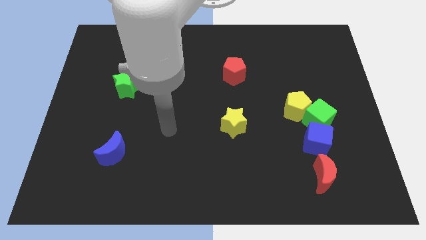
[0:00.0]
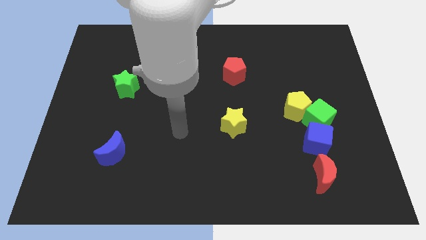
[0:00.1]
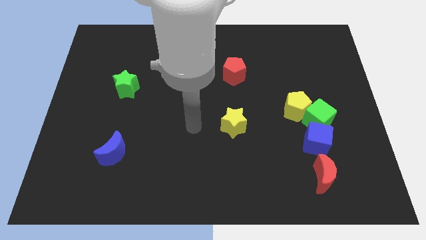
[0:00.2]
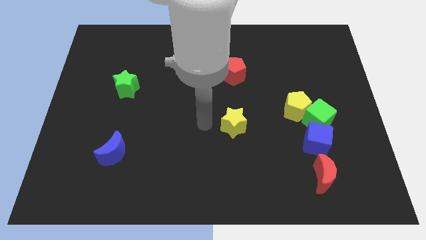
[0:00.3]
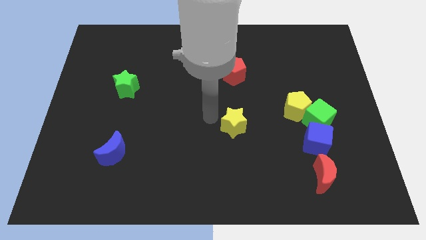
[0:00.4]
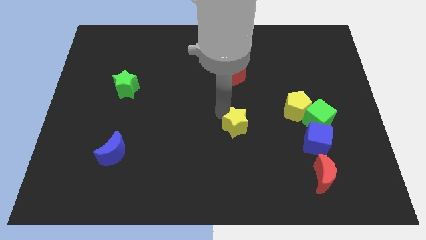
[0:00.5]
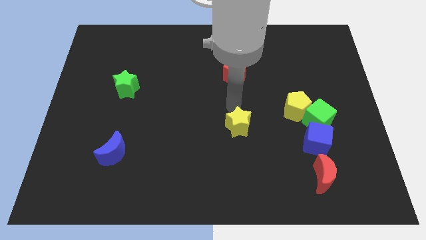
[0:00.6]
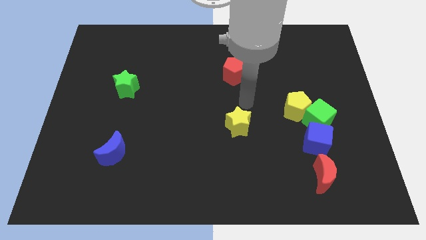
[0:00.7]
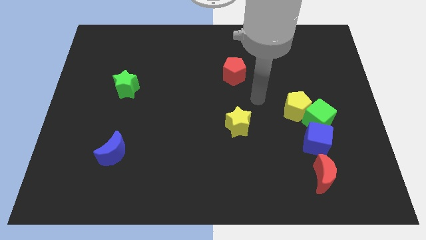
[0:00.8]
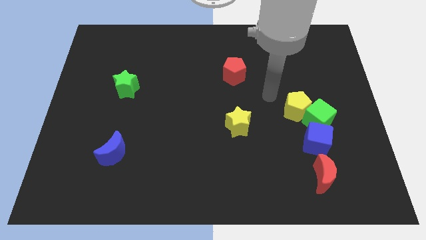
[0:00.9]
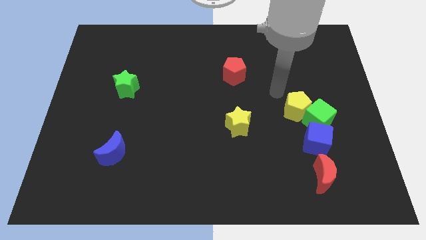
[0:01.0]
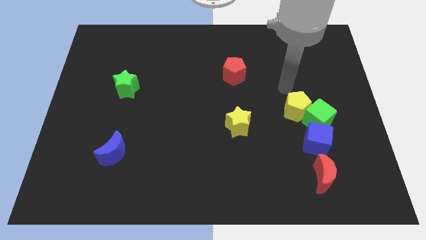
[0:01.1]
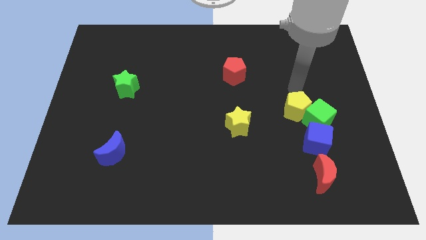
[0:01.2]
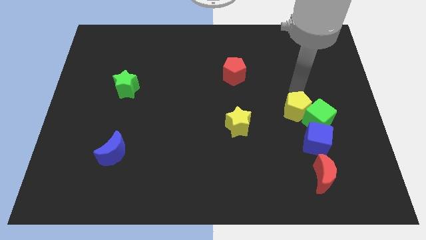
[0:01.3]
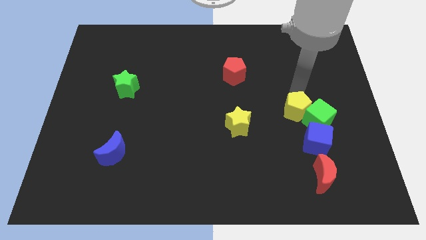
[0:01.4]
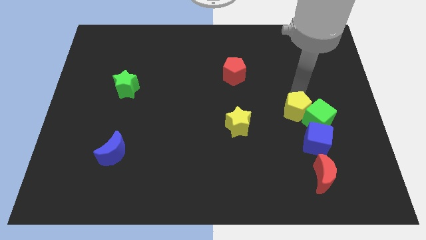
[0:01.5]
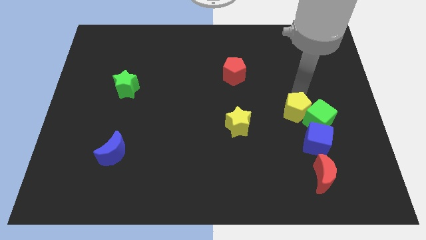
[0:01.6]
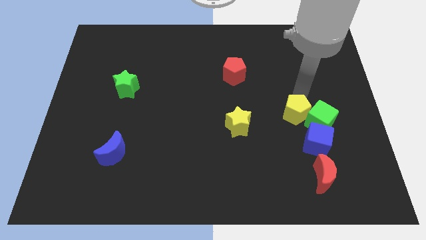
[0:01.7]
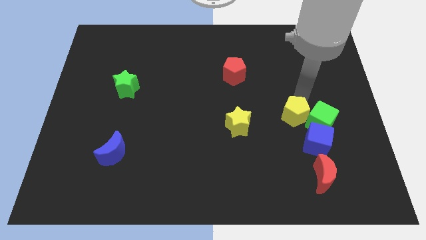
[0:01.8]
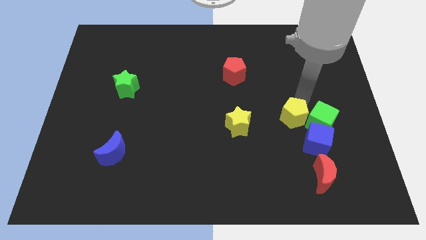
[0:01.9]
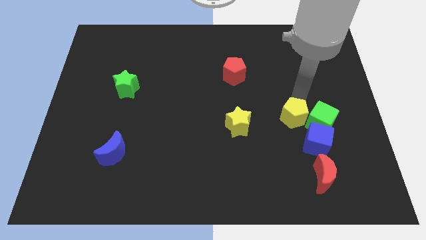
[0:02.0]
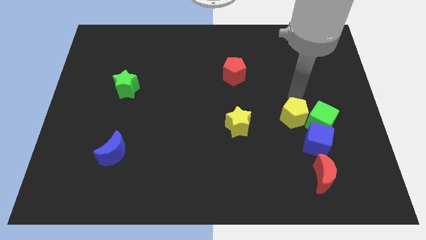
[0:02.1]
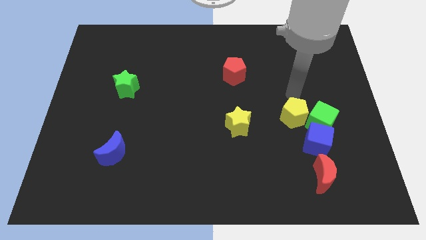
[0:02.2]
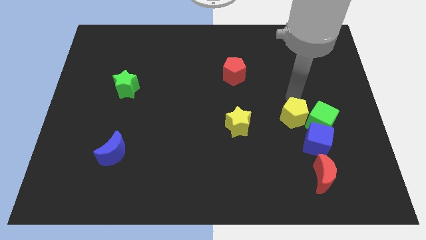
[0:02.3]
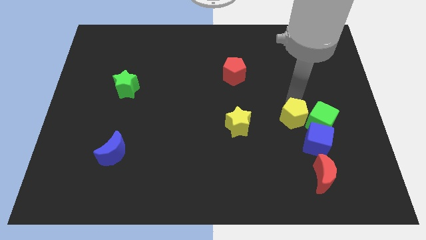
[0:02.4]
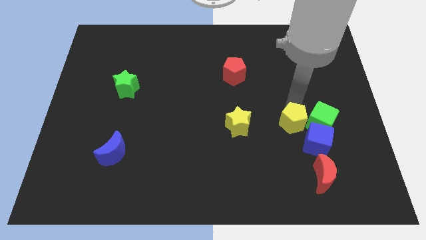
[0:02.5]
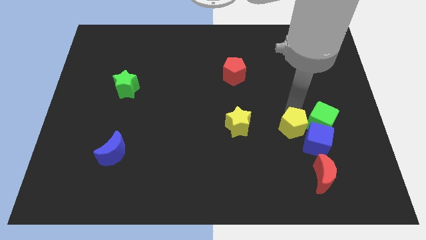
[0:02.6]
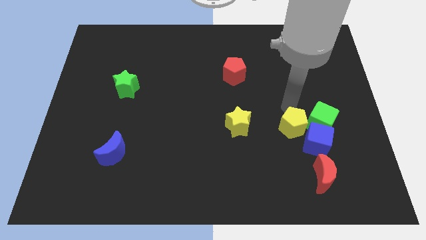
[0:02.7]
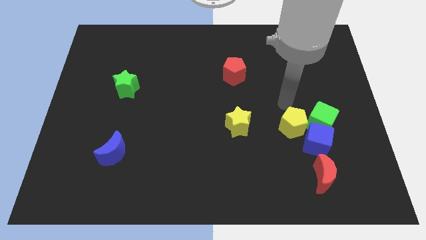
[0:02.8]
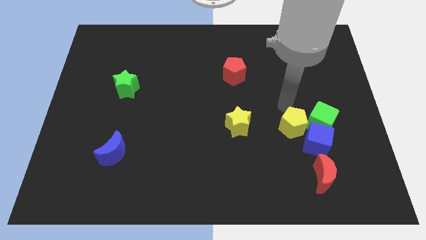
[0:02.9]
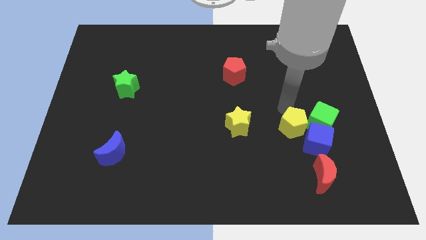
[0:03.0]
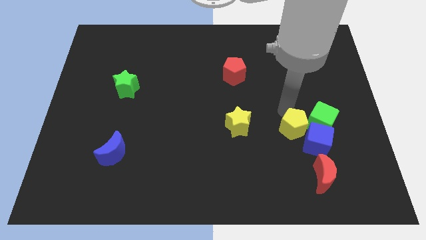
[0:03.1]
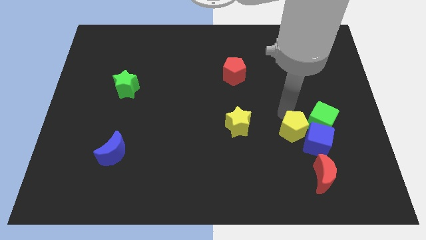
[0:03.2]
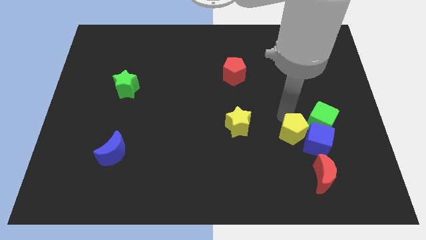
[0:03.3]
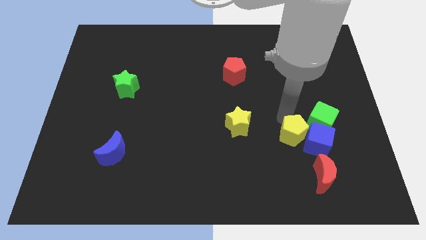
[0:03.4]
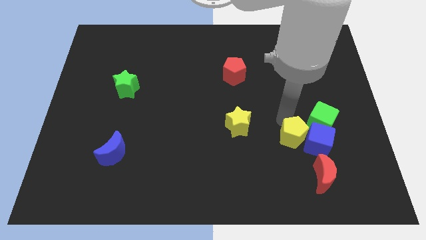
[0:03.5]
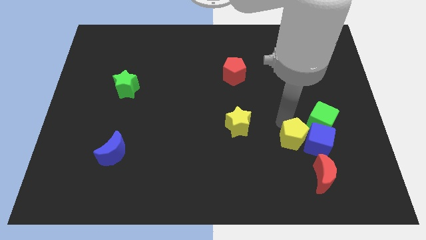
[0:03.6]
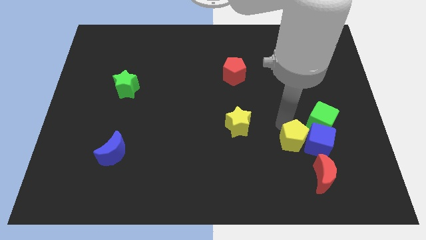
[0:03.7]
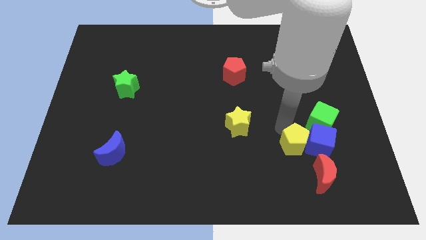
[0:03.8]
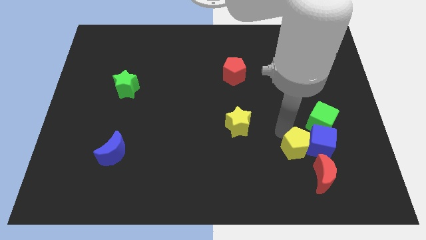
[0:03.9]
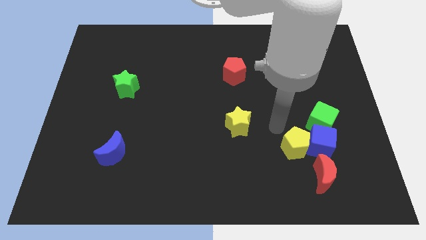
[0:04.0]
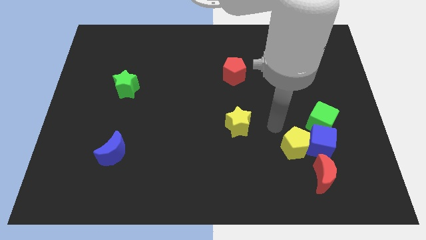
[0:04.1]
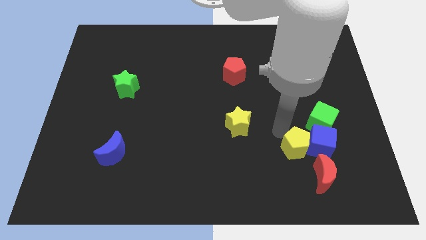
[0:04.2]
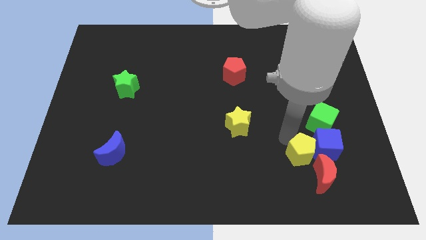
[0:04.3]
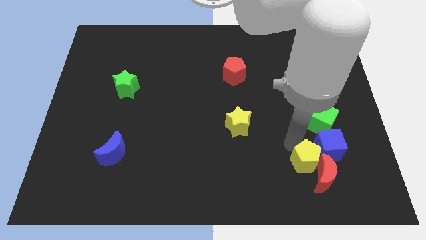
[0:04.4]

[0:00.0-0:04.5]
slide the yellow pentagon close to the red moon

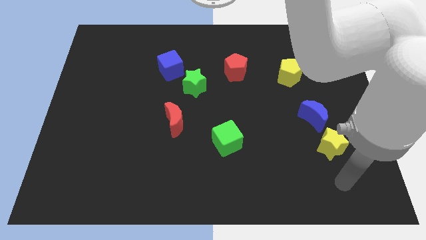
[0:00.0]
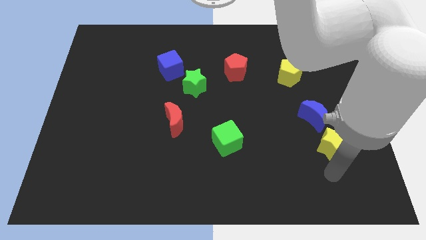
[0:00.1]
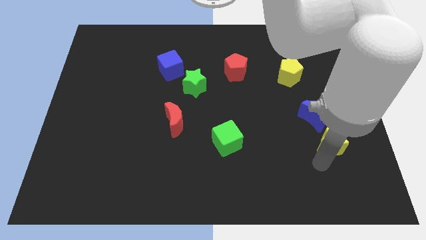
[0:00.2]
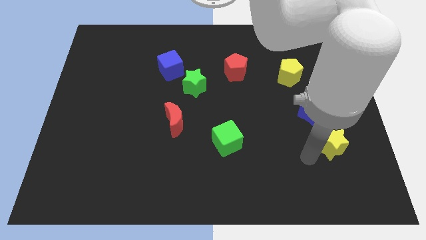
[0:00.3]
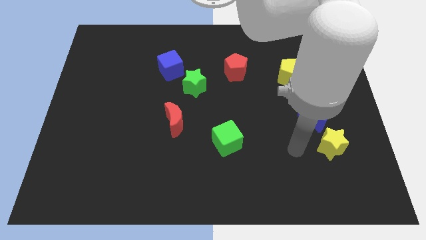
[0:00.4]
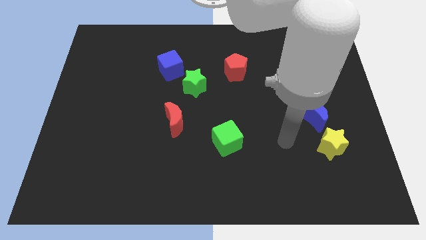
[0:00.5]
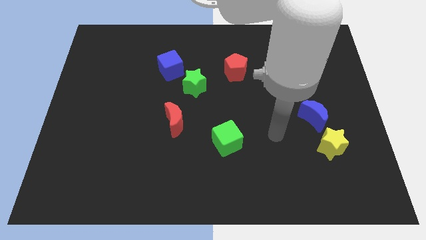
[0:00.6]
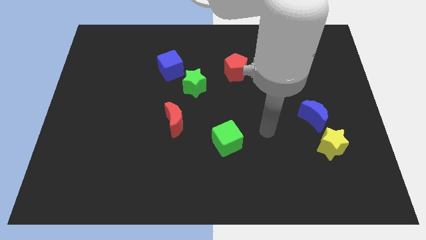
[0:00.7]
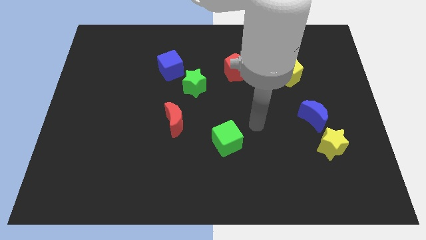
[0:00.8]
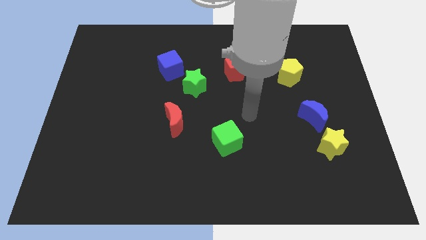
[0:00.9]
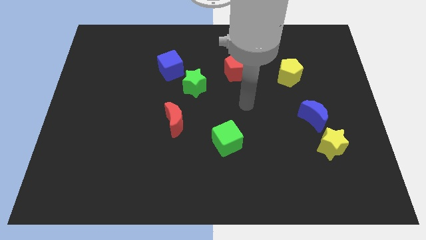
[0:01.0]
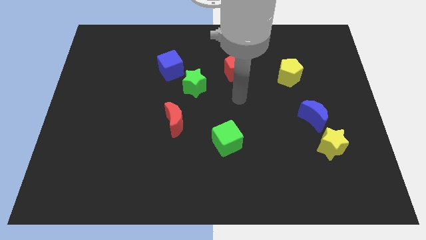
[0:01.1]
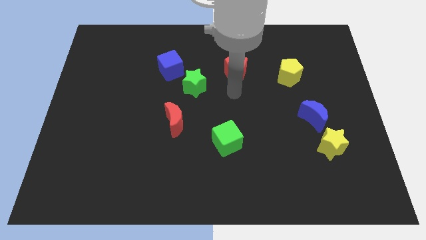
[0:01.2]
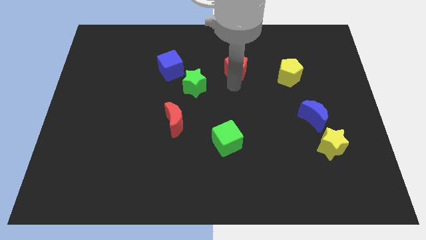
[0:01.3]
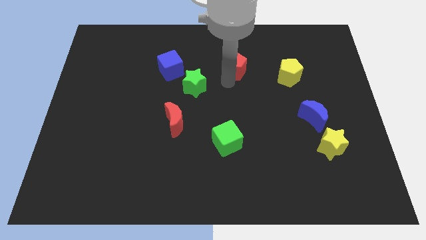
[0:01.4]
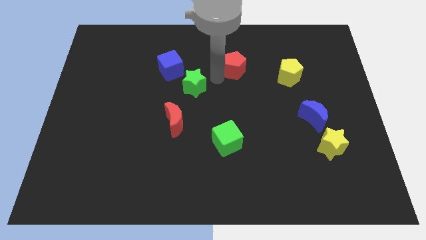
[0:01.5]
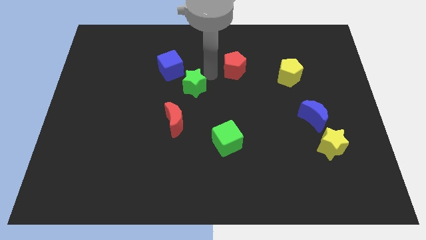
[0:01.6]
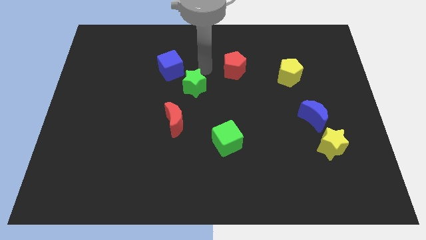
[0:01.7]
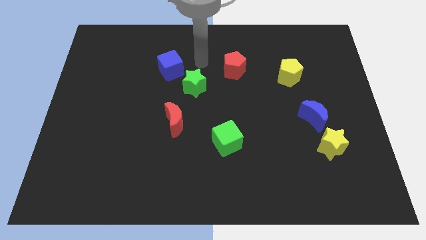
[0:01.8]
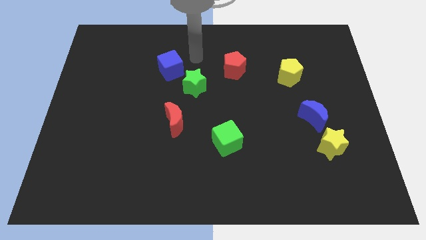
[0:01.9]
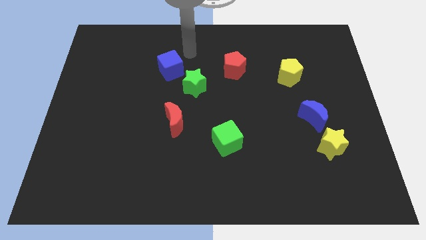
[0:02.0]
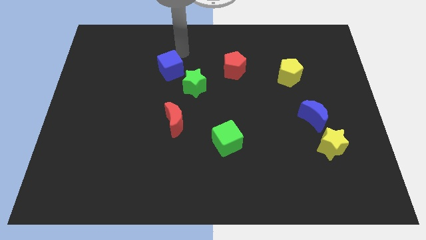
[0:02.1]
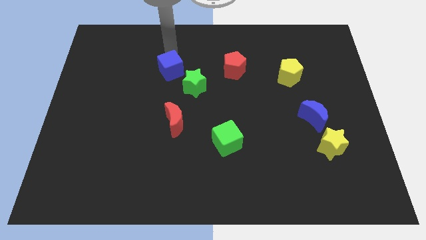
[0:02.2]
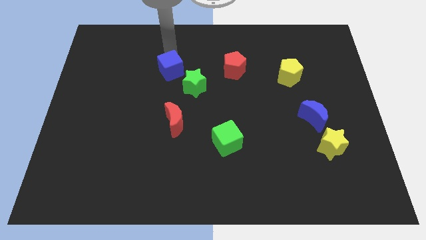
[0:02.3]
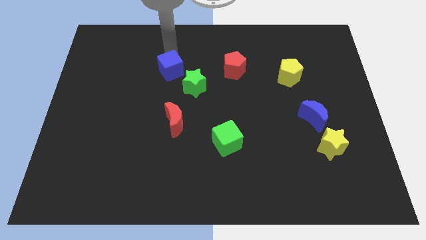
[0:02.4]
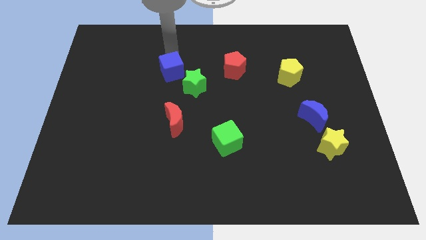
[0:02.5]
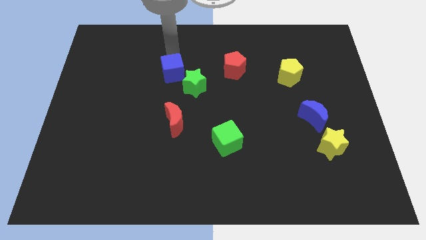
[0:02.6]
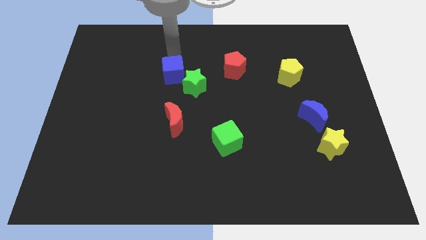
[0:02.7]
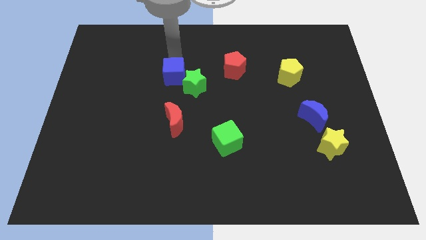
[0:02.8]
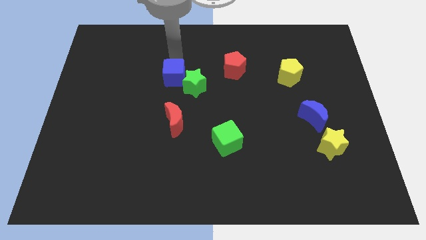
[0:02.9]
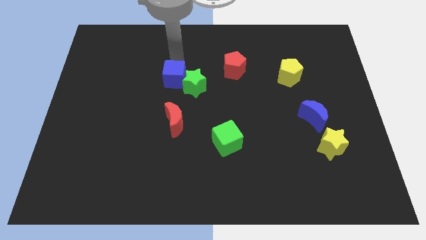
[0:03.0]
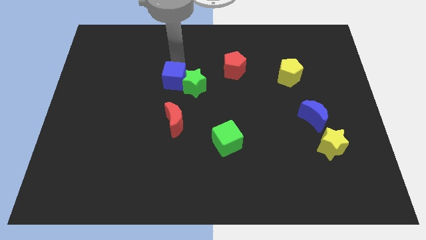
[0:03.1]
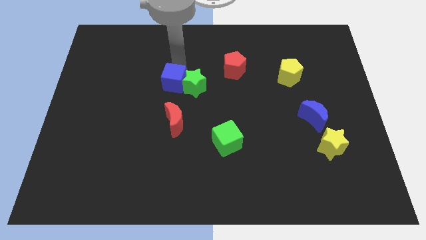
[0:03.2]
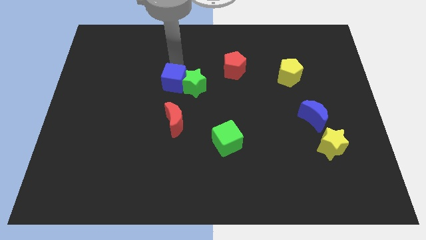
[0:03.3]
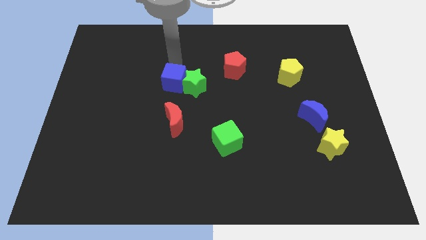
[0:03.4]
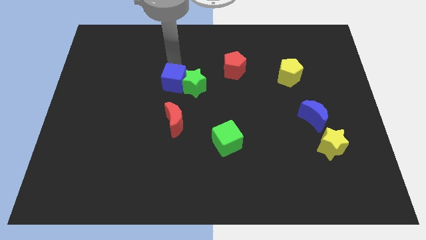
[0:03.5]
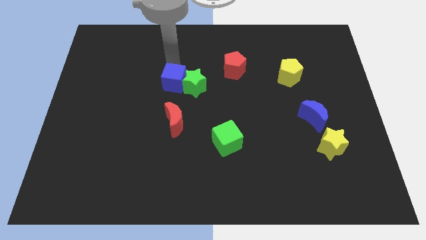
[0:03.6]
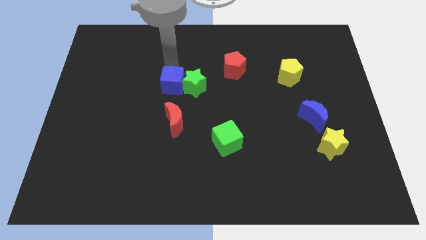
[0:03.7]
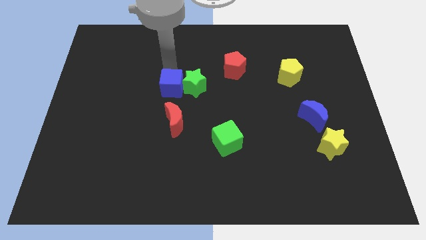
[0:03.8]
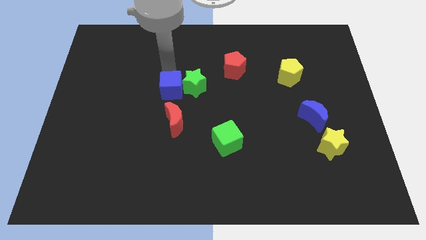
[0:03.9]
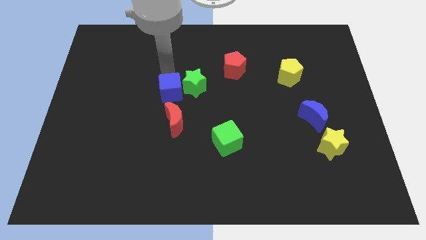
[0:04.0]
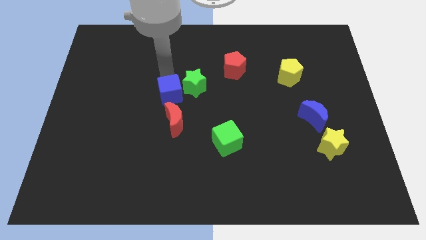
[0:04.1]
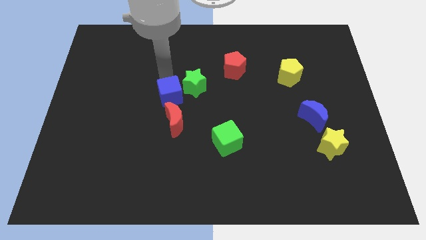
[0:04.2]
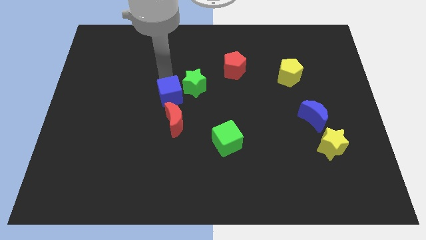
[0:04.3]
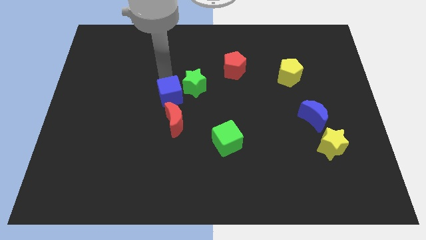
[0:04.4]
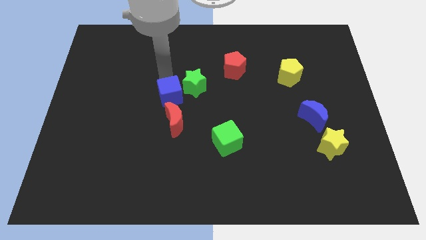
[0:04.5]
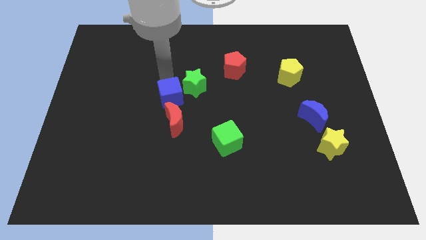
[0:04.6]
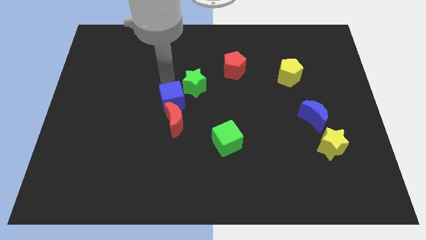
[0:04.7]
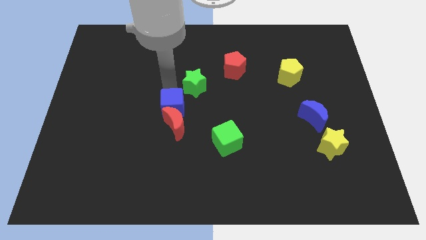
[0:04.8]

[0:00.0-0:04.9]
slide the blue cube to the red moon
